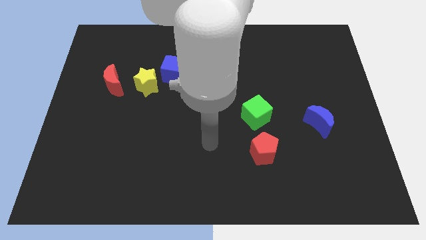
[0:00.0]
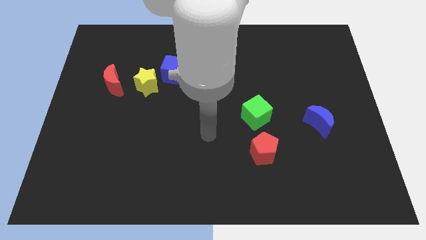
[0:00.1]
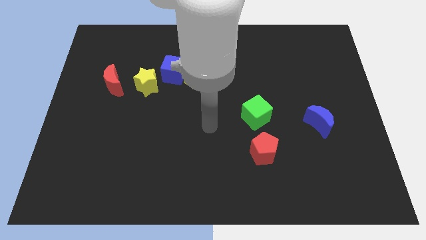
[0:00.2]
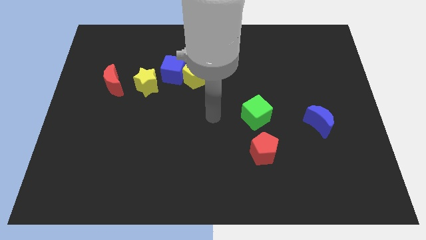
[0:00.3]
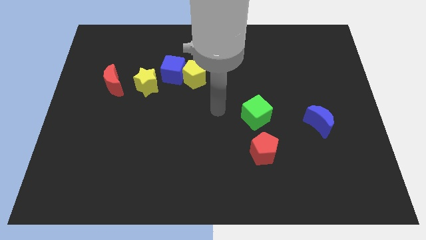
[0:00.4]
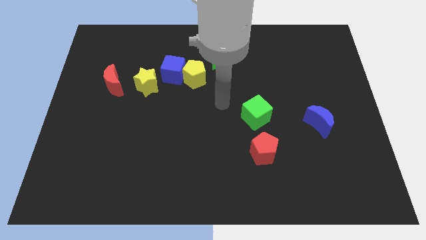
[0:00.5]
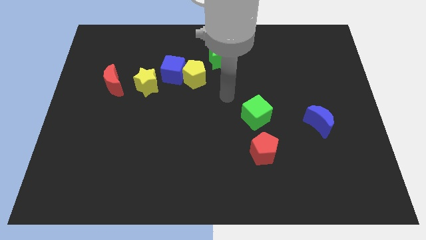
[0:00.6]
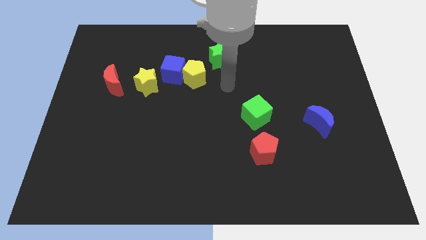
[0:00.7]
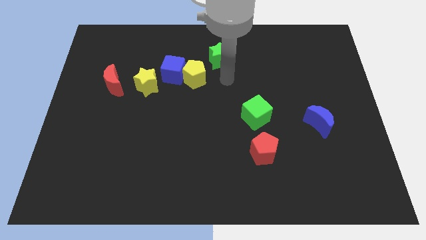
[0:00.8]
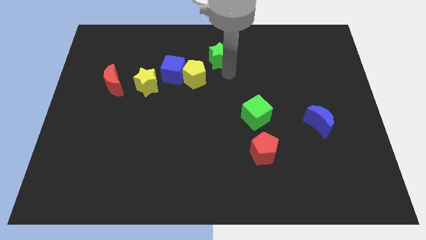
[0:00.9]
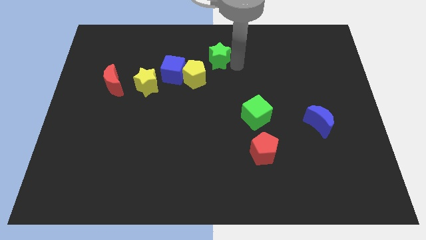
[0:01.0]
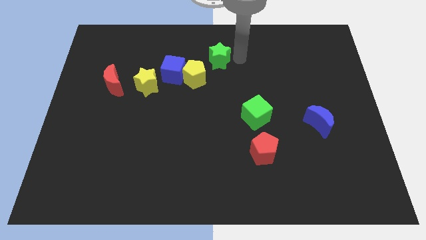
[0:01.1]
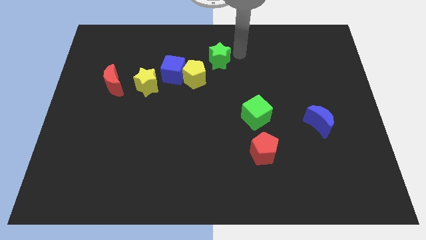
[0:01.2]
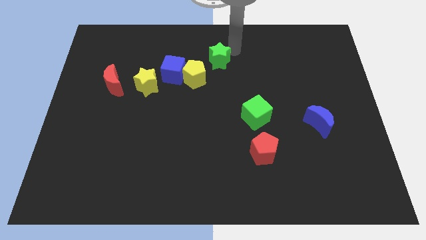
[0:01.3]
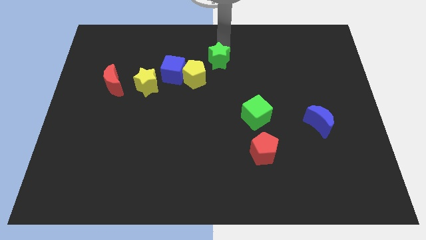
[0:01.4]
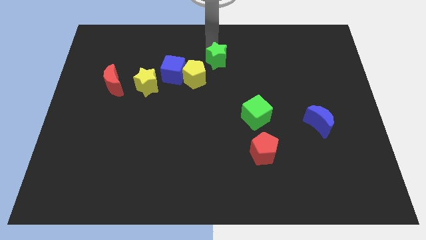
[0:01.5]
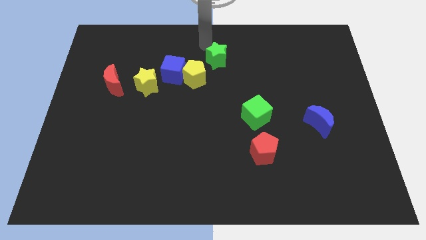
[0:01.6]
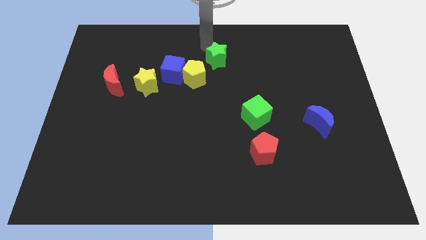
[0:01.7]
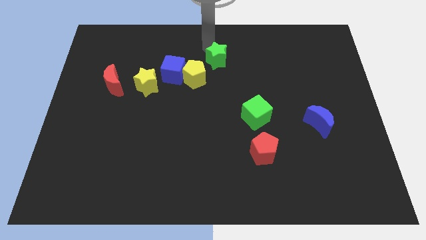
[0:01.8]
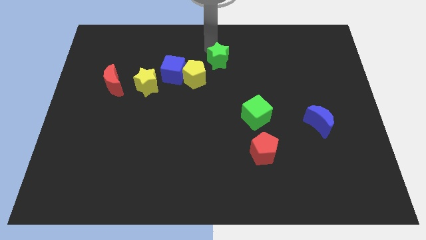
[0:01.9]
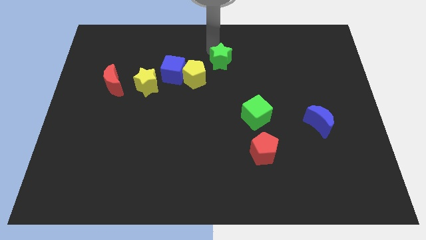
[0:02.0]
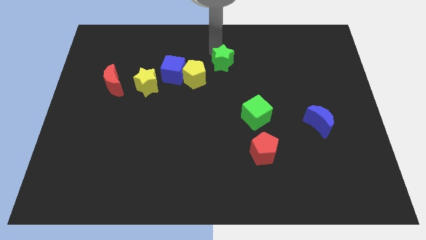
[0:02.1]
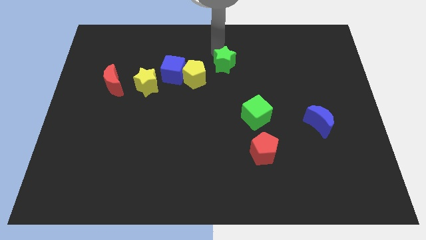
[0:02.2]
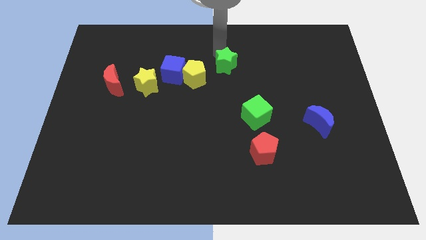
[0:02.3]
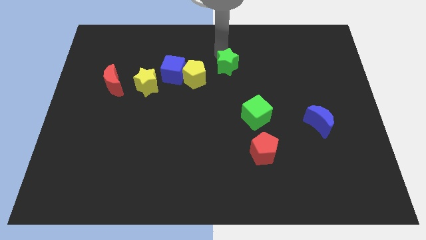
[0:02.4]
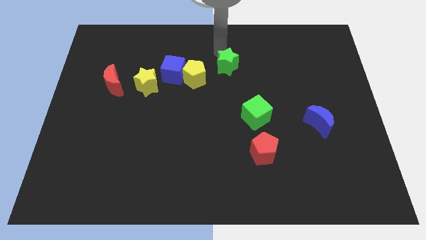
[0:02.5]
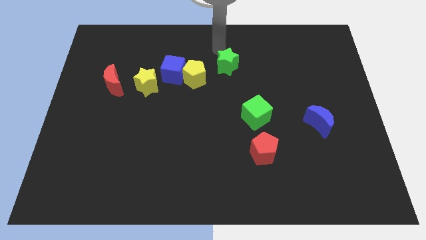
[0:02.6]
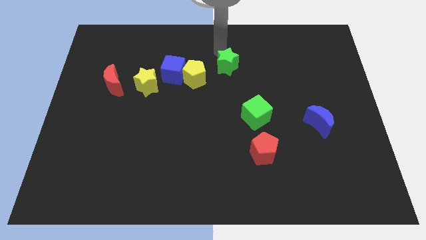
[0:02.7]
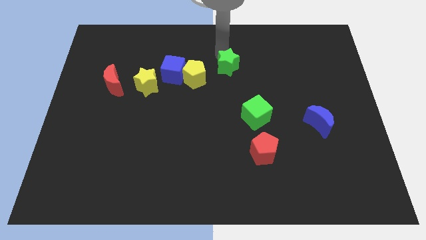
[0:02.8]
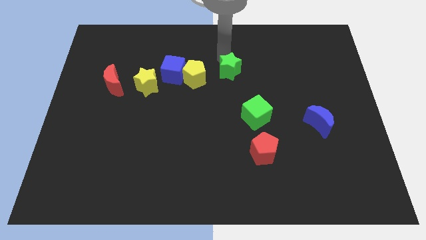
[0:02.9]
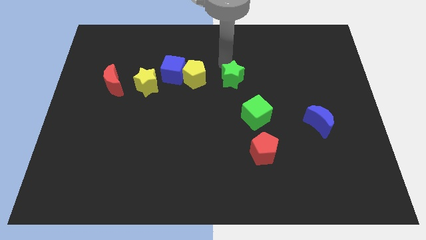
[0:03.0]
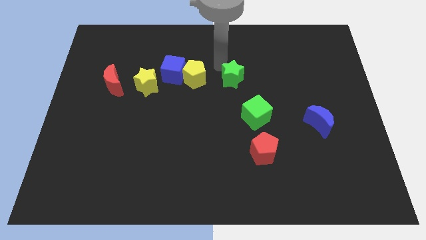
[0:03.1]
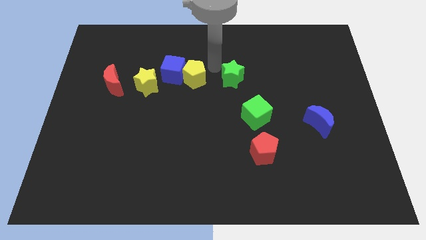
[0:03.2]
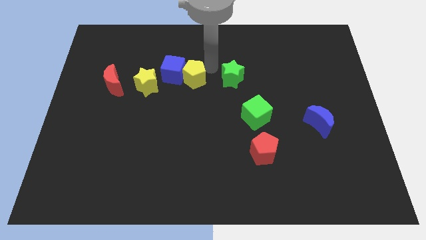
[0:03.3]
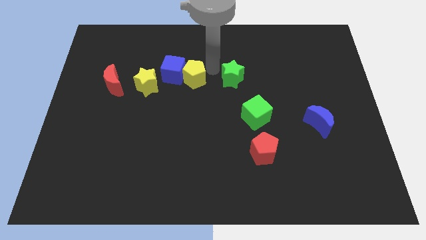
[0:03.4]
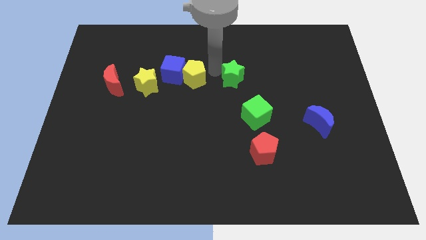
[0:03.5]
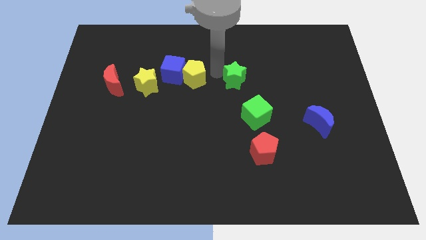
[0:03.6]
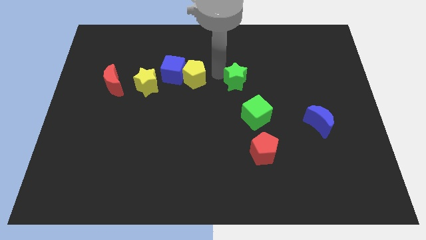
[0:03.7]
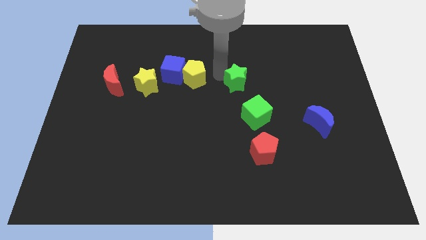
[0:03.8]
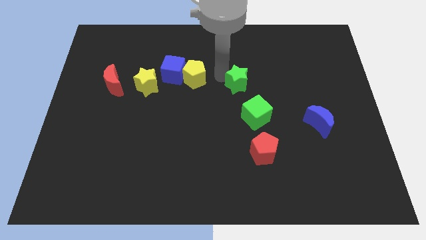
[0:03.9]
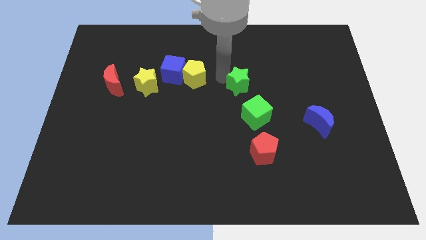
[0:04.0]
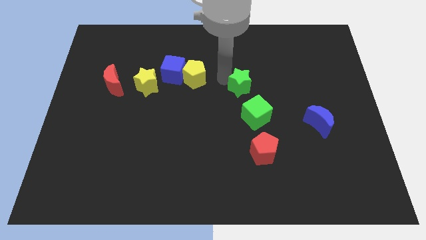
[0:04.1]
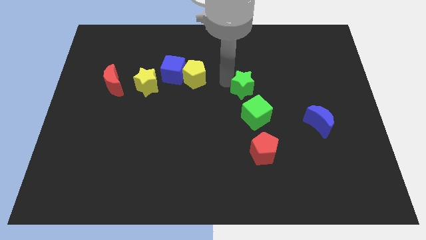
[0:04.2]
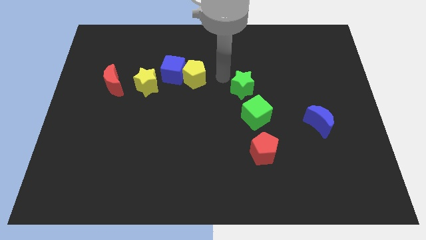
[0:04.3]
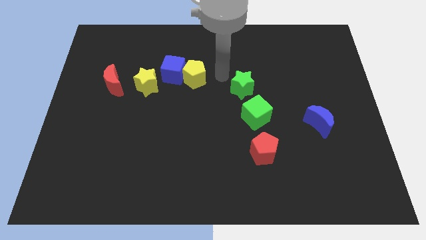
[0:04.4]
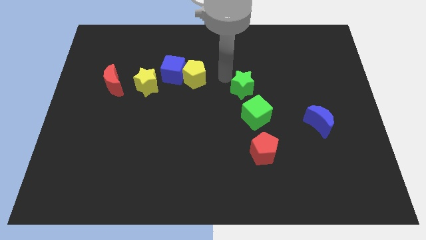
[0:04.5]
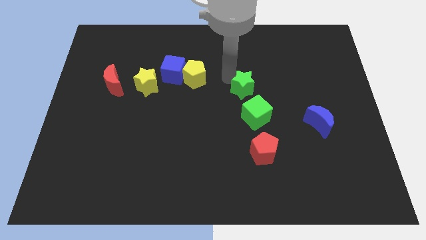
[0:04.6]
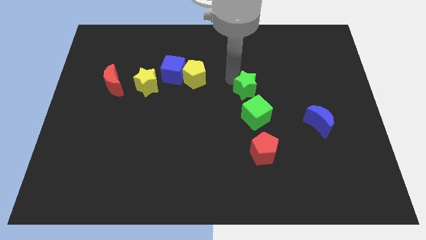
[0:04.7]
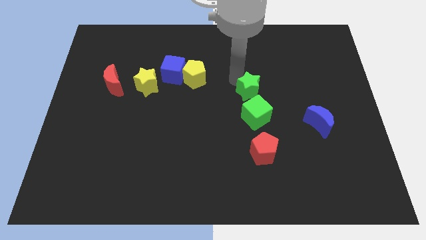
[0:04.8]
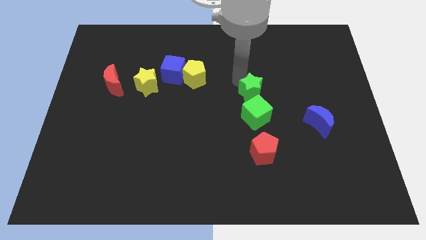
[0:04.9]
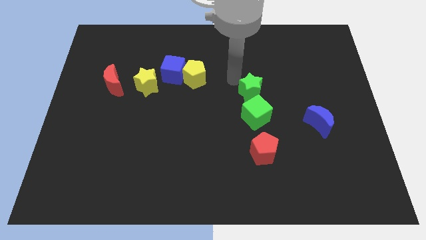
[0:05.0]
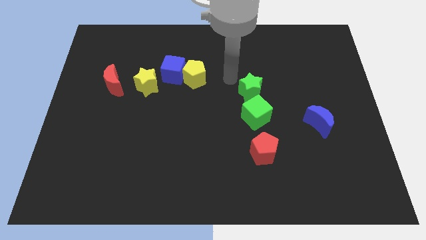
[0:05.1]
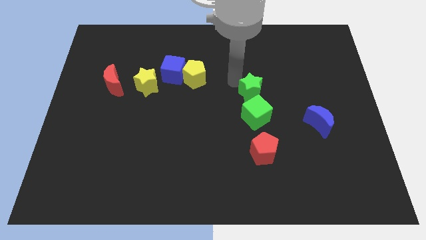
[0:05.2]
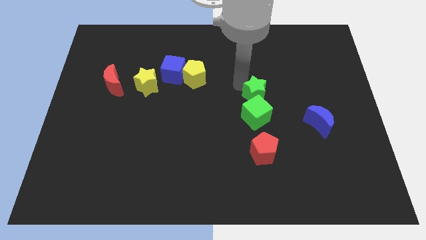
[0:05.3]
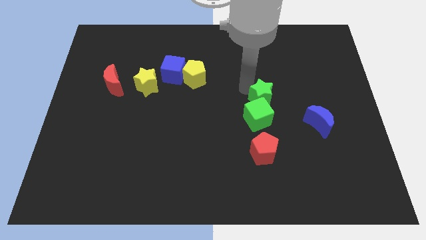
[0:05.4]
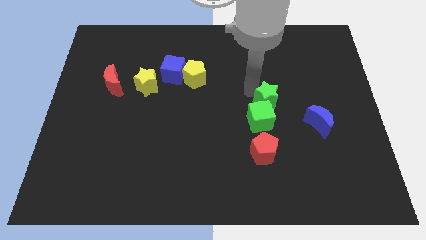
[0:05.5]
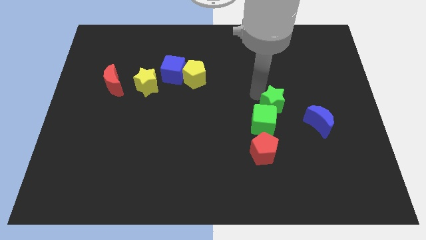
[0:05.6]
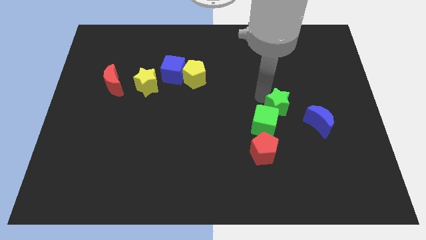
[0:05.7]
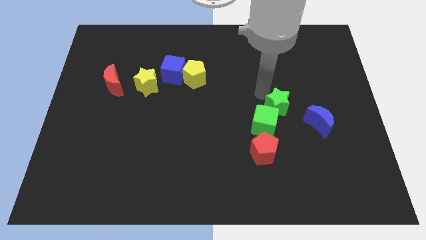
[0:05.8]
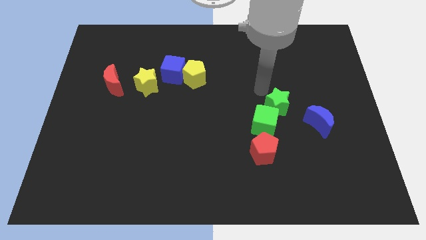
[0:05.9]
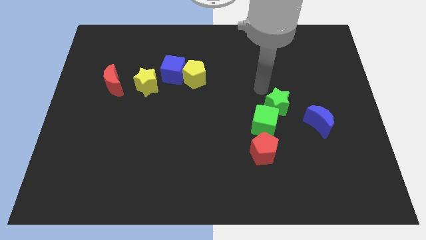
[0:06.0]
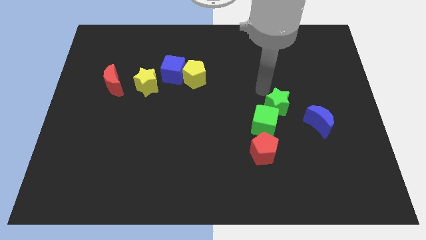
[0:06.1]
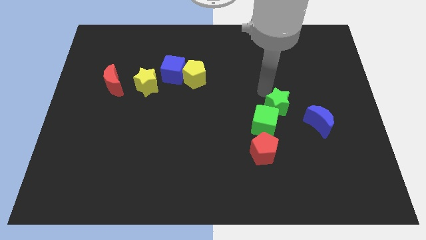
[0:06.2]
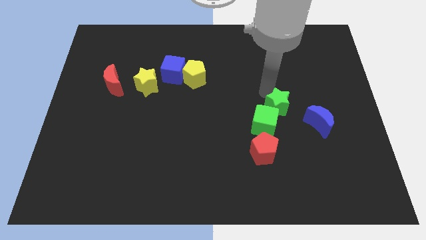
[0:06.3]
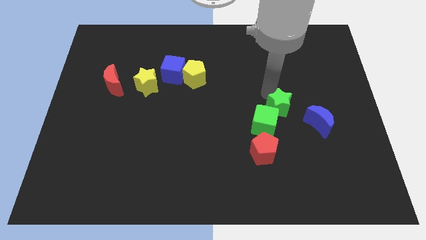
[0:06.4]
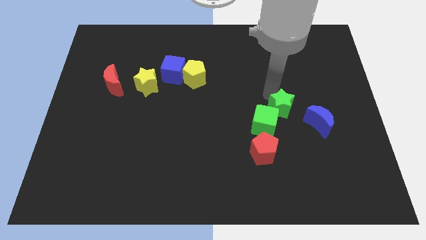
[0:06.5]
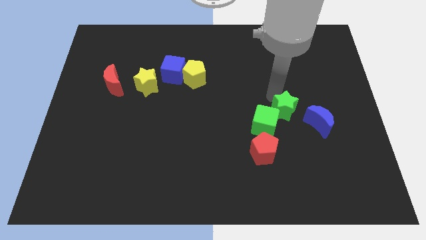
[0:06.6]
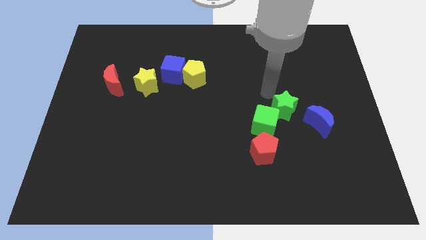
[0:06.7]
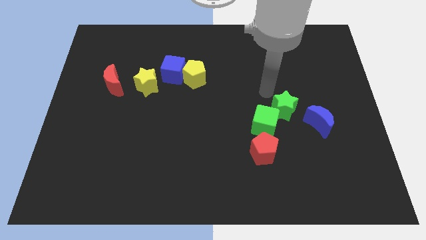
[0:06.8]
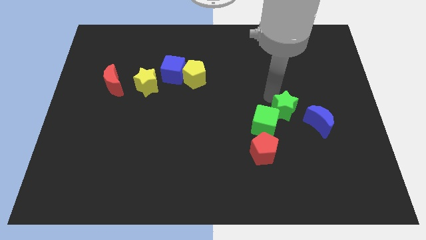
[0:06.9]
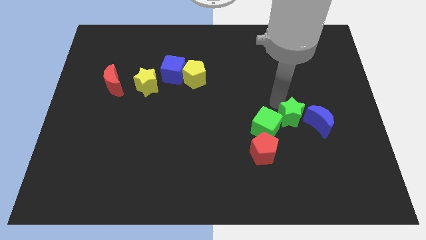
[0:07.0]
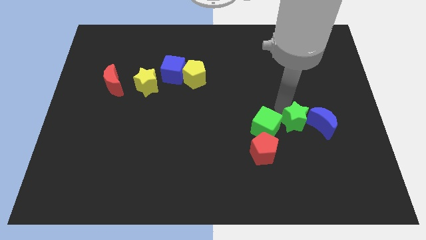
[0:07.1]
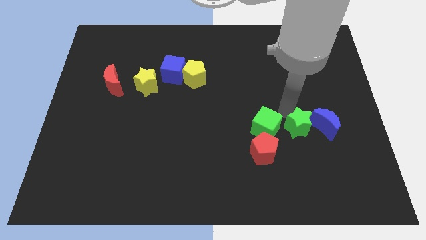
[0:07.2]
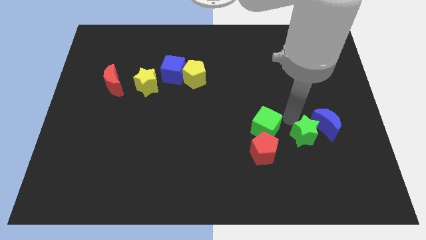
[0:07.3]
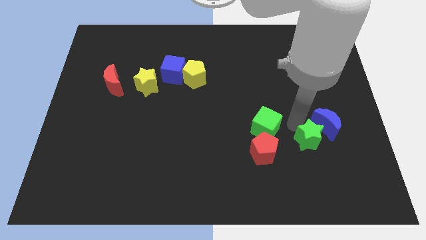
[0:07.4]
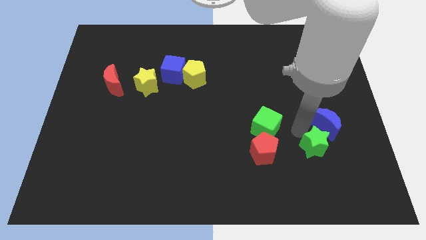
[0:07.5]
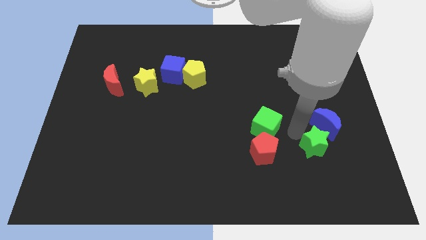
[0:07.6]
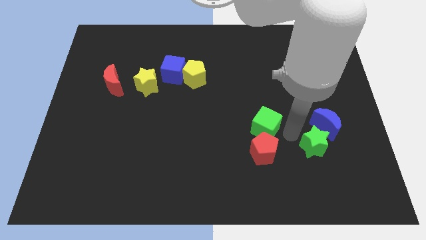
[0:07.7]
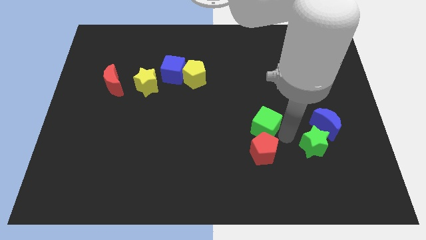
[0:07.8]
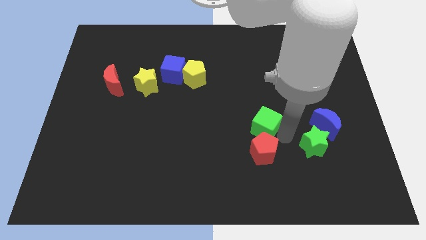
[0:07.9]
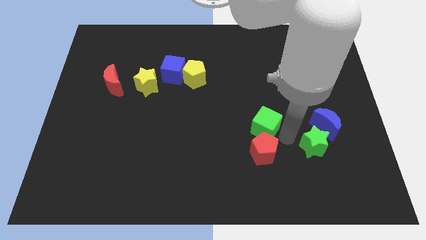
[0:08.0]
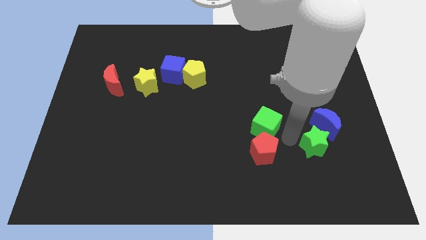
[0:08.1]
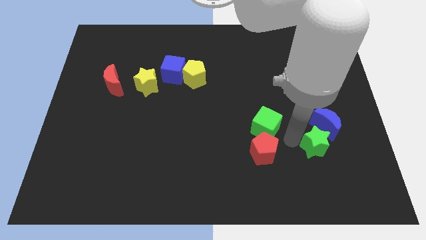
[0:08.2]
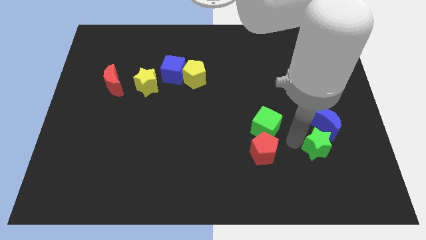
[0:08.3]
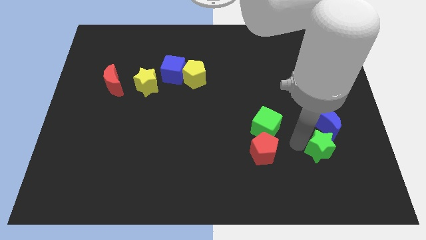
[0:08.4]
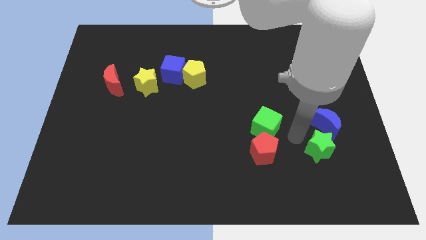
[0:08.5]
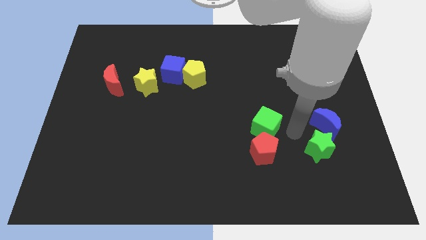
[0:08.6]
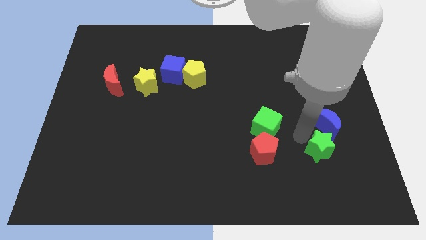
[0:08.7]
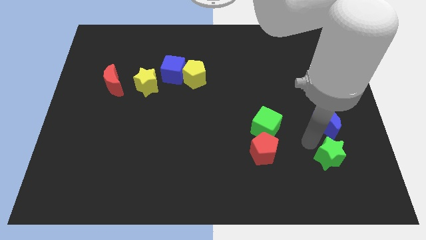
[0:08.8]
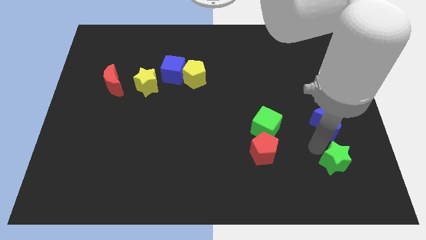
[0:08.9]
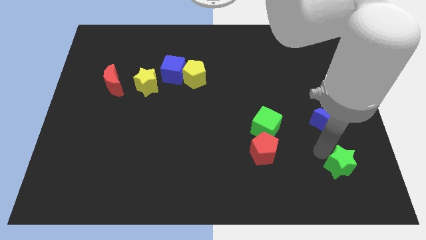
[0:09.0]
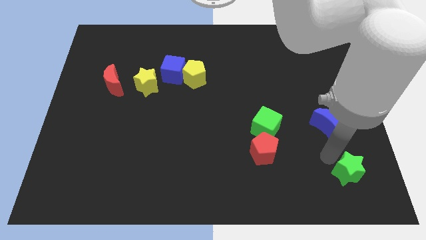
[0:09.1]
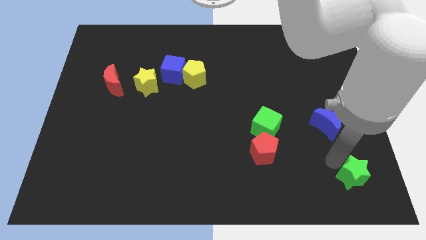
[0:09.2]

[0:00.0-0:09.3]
move the green star to the lower right corner
